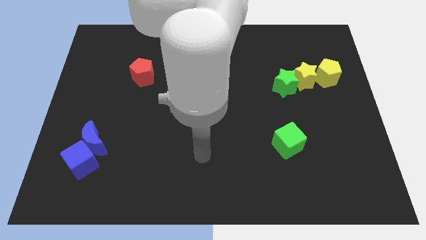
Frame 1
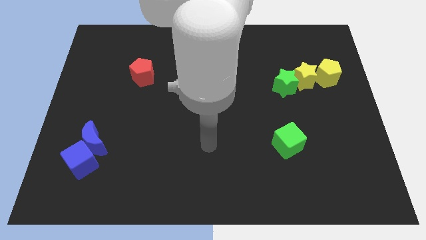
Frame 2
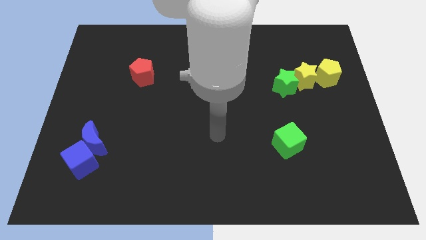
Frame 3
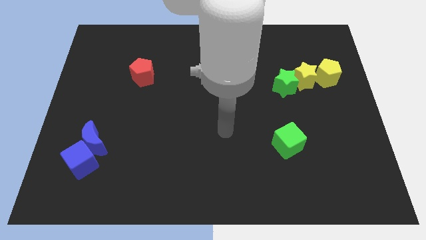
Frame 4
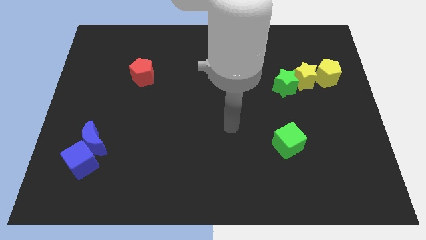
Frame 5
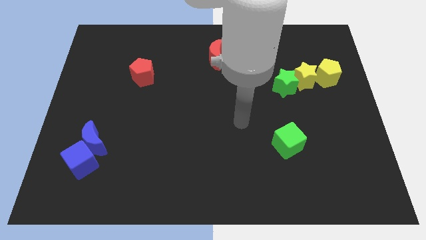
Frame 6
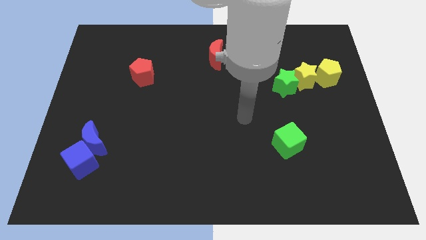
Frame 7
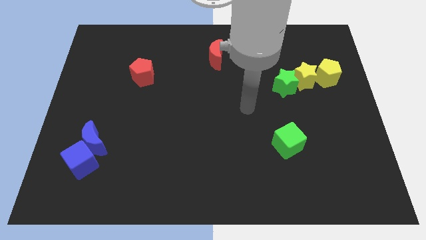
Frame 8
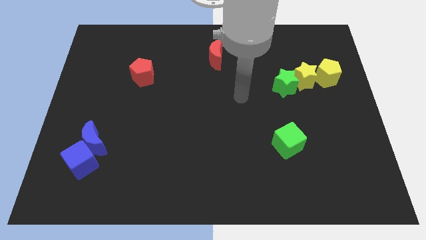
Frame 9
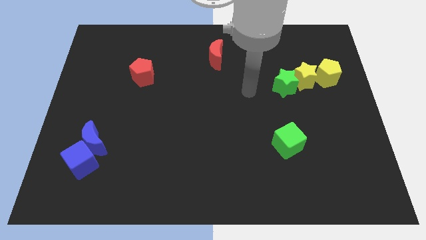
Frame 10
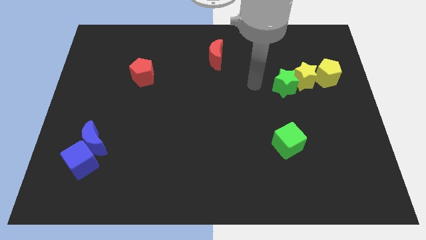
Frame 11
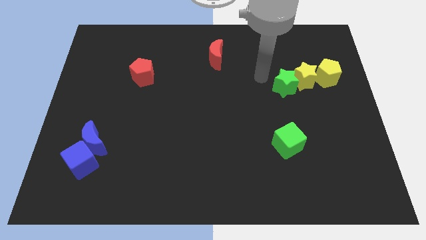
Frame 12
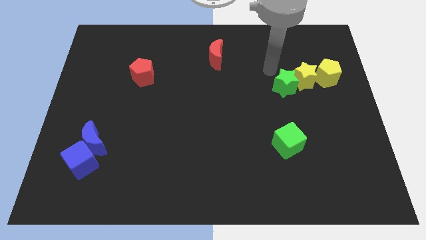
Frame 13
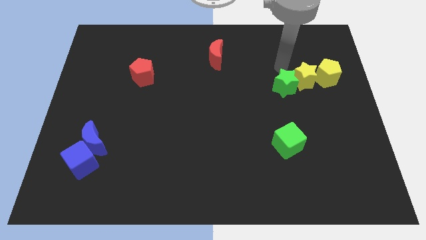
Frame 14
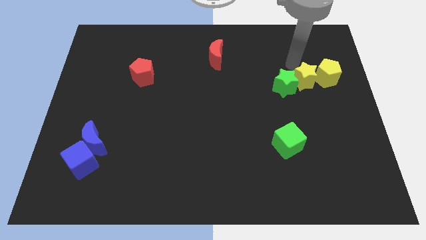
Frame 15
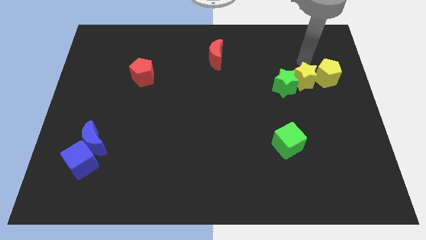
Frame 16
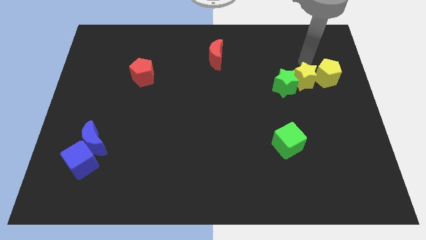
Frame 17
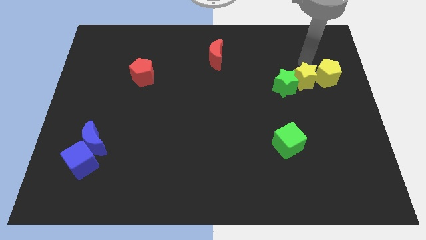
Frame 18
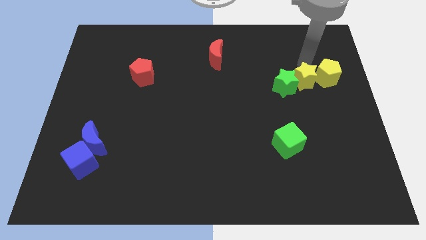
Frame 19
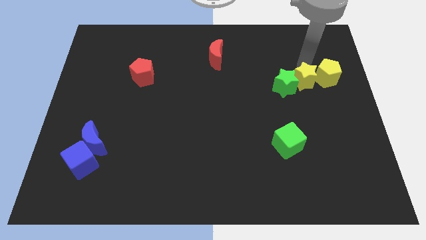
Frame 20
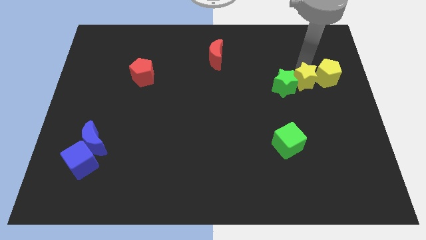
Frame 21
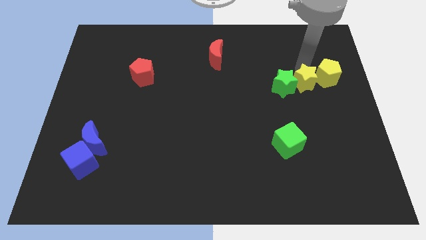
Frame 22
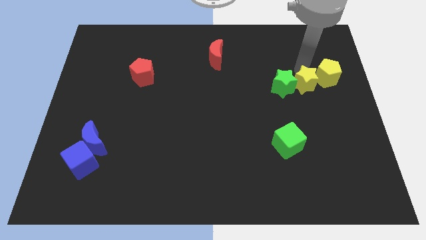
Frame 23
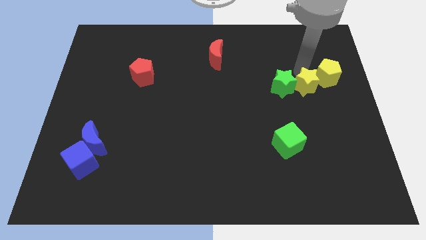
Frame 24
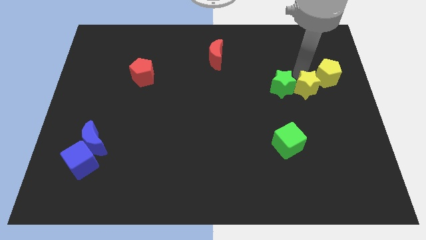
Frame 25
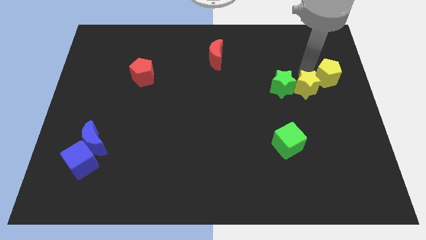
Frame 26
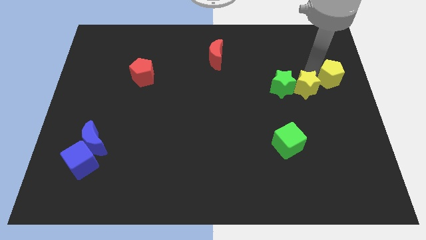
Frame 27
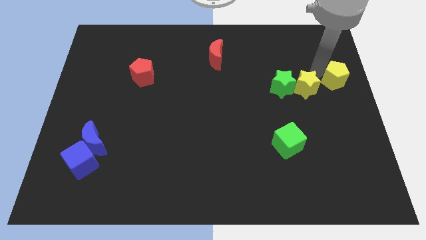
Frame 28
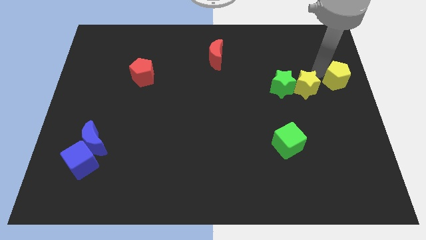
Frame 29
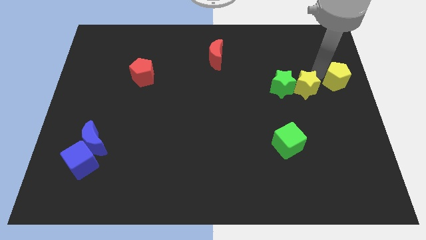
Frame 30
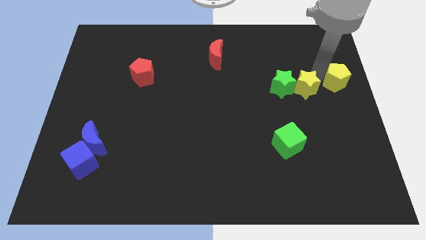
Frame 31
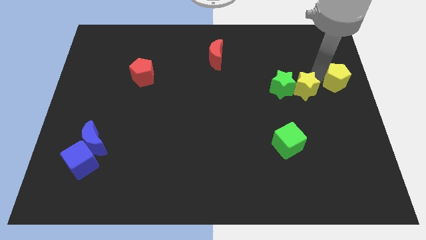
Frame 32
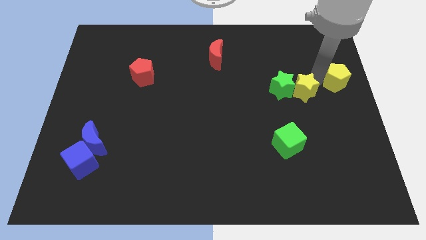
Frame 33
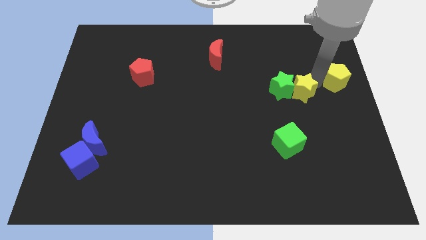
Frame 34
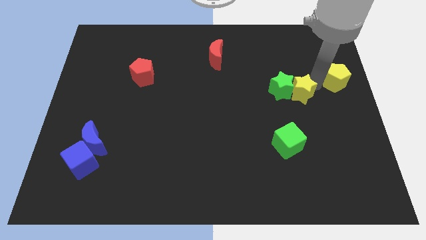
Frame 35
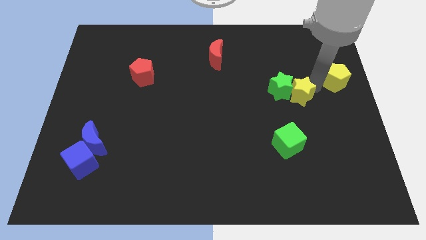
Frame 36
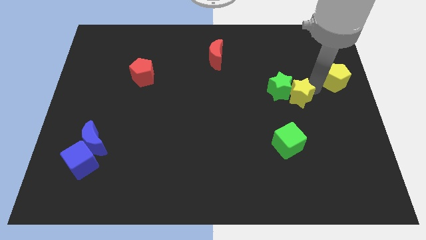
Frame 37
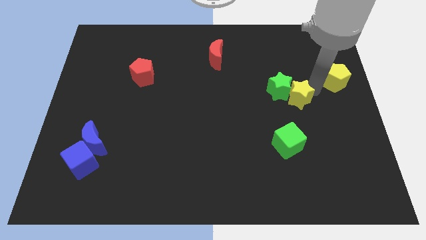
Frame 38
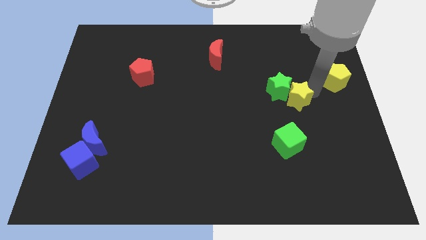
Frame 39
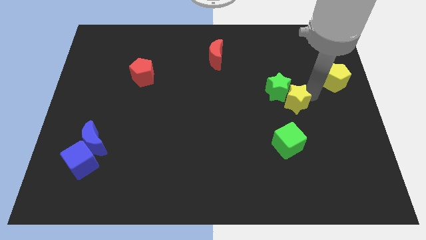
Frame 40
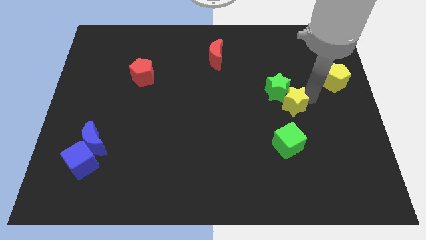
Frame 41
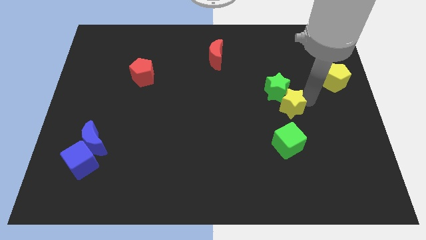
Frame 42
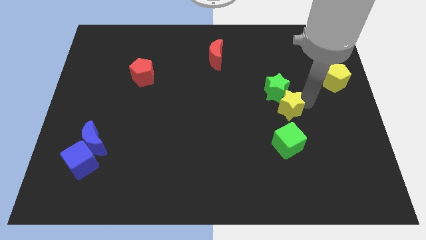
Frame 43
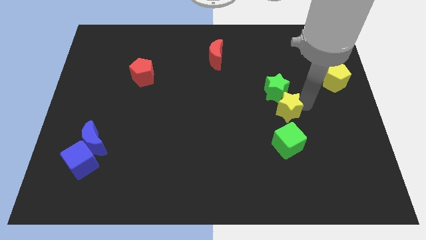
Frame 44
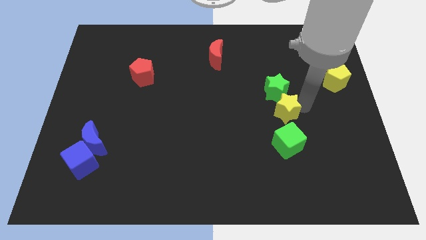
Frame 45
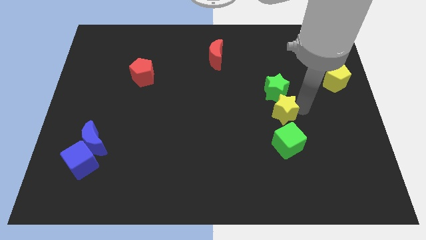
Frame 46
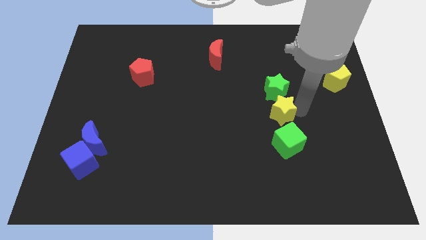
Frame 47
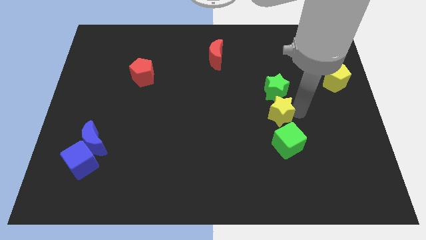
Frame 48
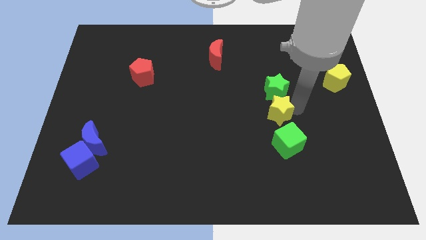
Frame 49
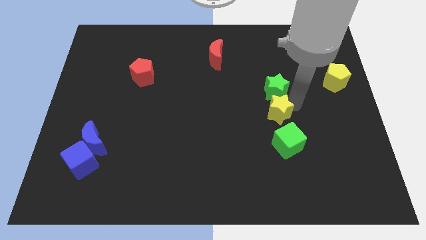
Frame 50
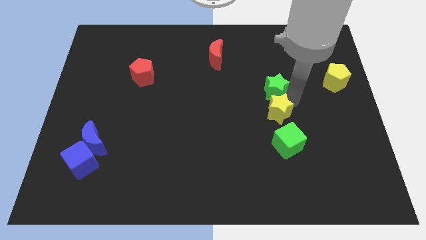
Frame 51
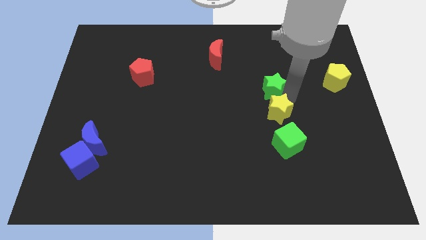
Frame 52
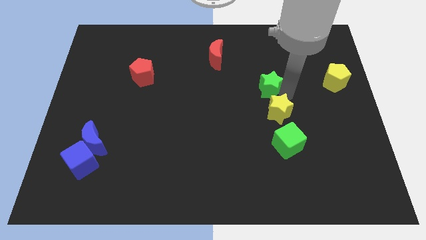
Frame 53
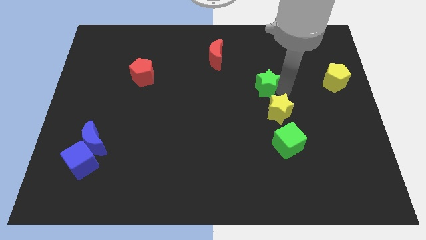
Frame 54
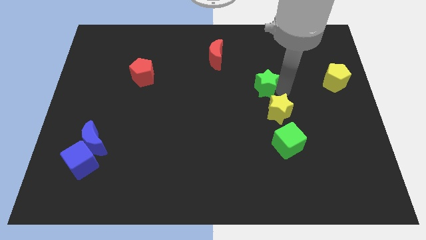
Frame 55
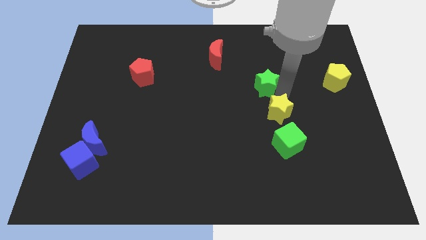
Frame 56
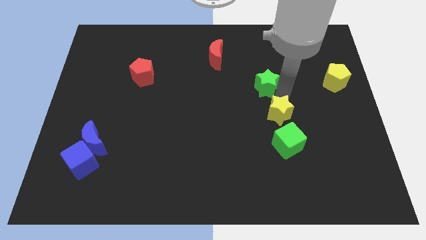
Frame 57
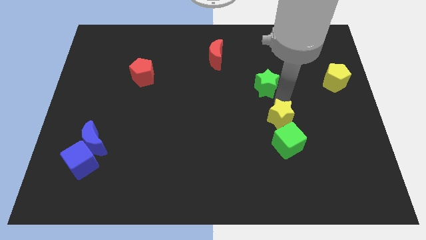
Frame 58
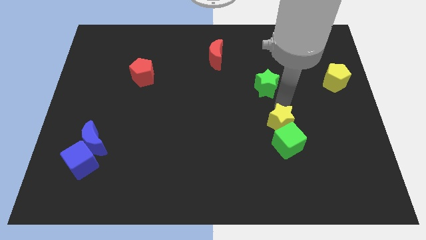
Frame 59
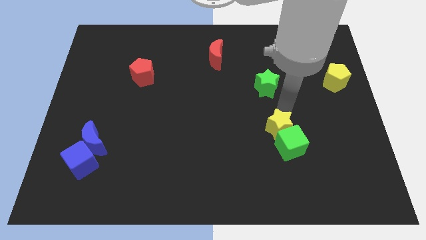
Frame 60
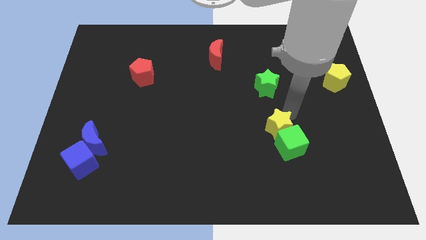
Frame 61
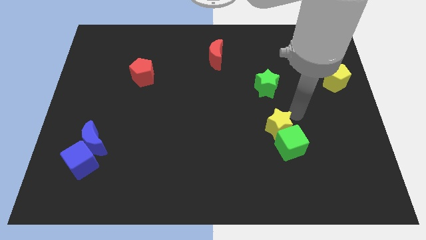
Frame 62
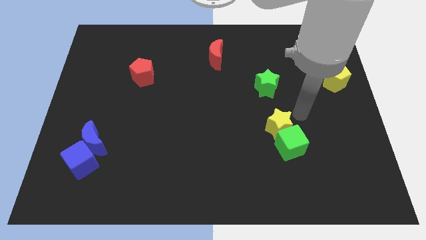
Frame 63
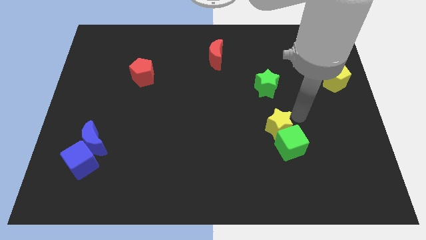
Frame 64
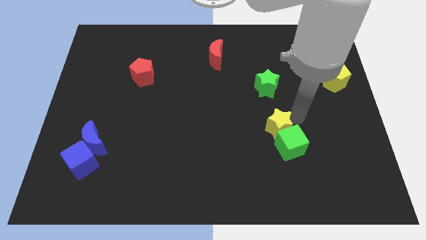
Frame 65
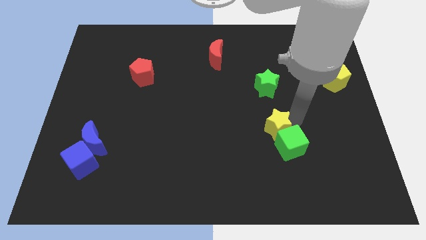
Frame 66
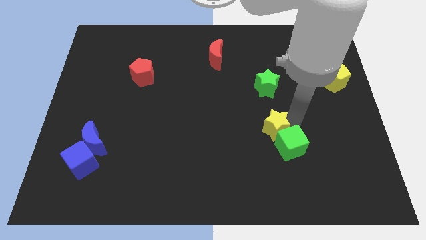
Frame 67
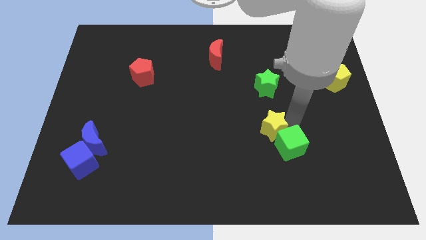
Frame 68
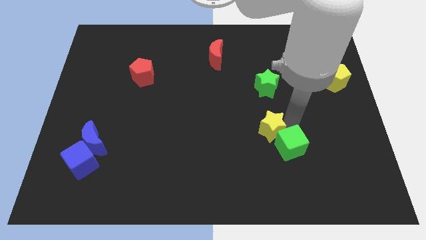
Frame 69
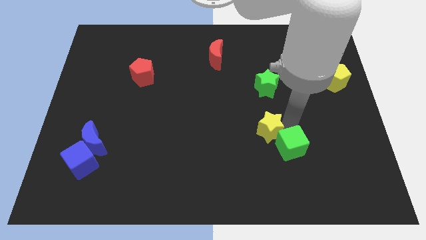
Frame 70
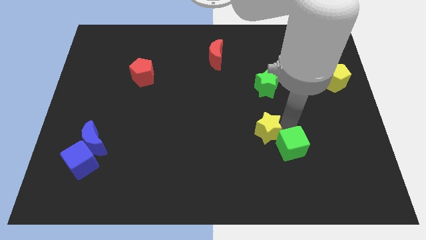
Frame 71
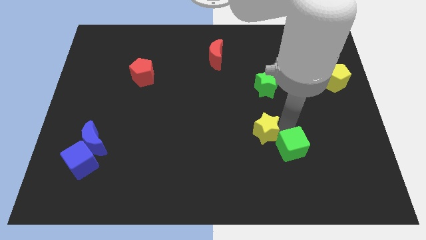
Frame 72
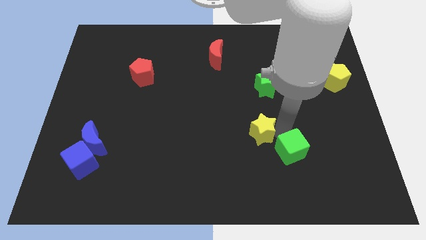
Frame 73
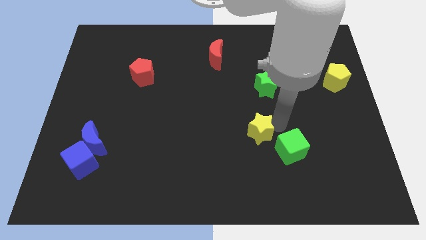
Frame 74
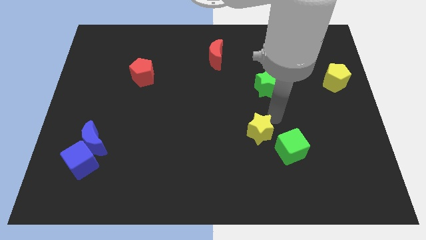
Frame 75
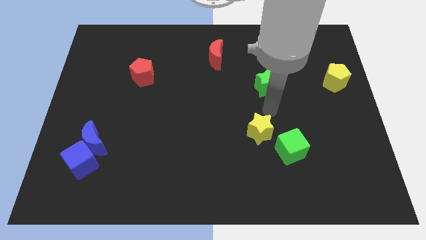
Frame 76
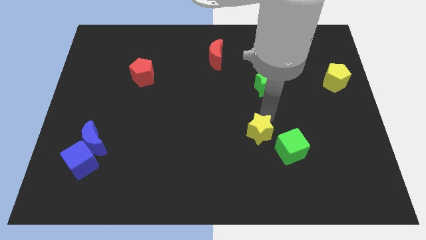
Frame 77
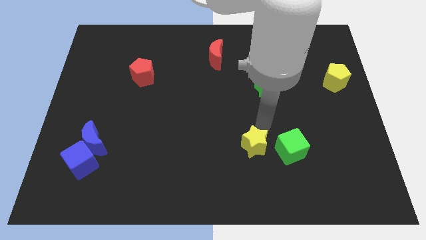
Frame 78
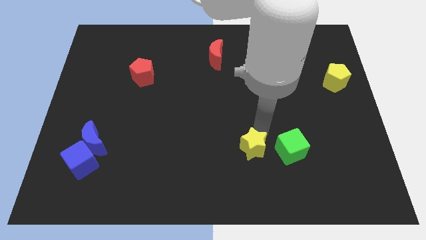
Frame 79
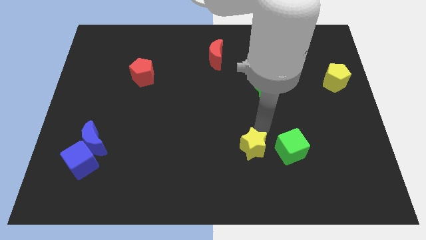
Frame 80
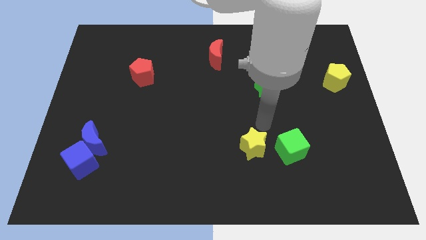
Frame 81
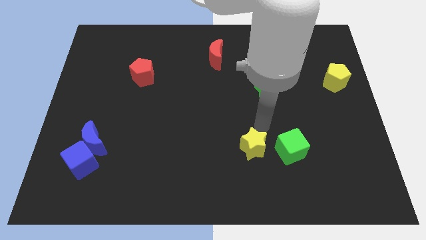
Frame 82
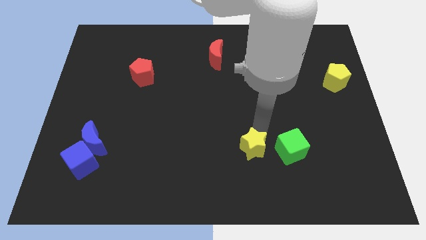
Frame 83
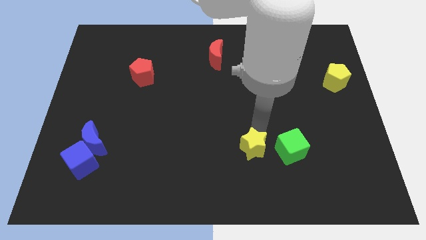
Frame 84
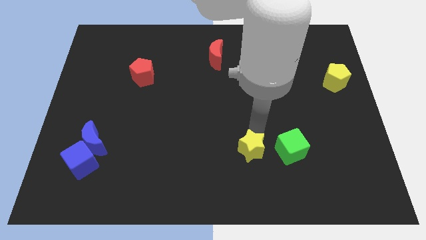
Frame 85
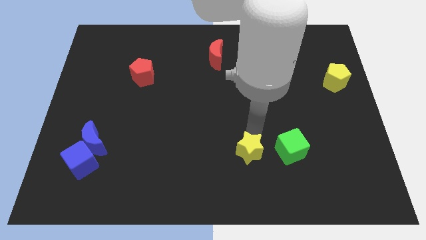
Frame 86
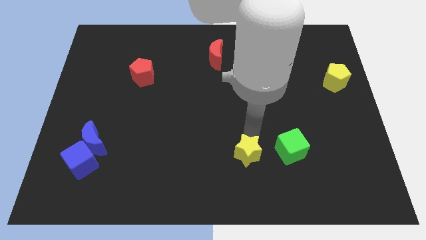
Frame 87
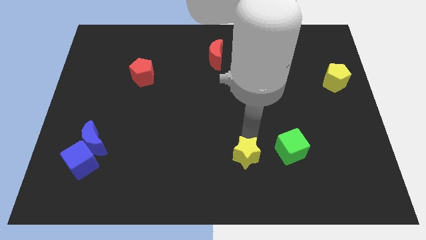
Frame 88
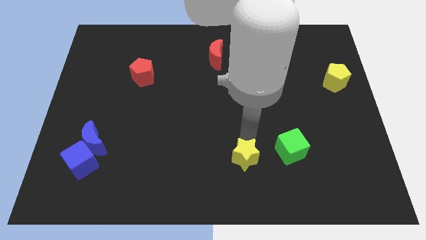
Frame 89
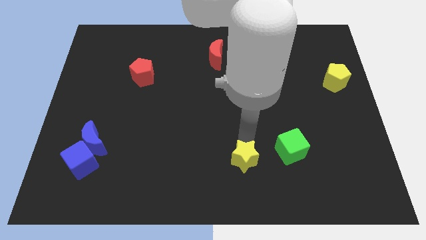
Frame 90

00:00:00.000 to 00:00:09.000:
slide the yellow star to the bottom
